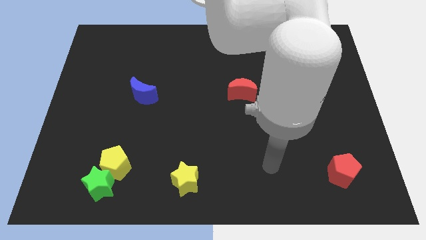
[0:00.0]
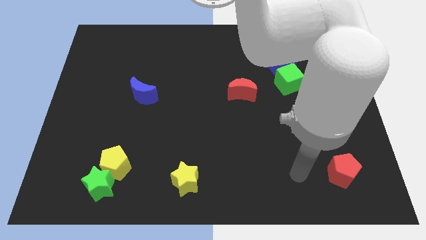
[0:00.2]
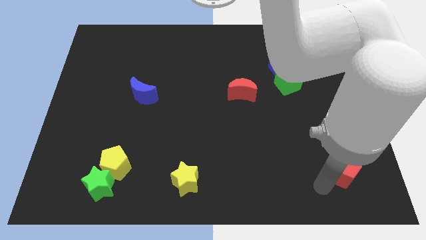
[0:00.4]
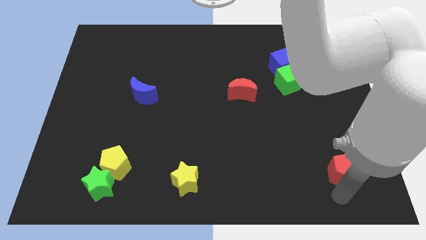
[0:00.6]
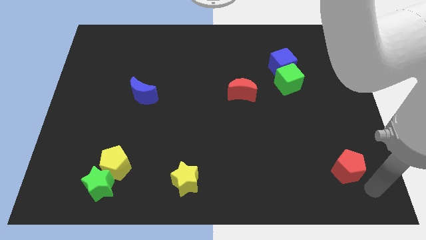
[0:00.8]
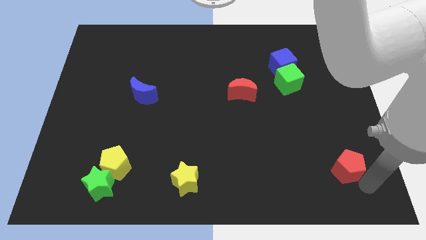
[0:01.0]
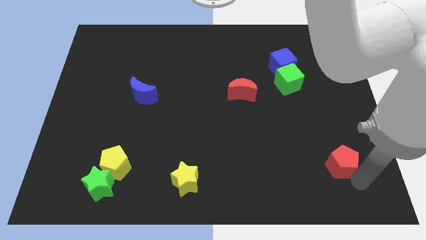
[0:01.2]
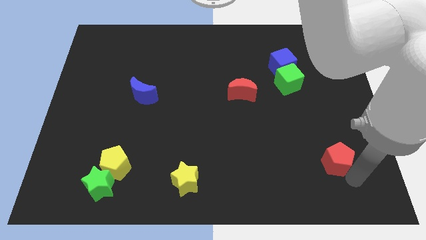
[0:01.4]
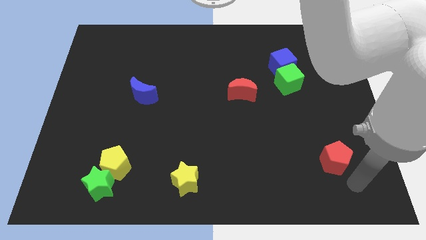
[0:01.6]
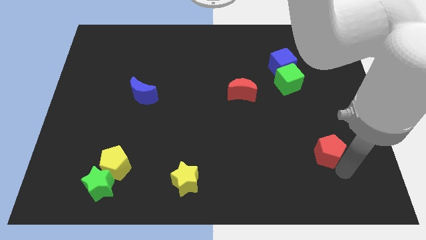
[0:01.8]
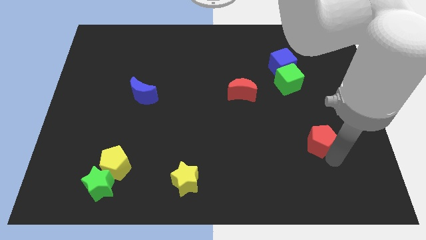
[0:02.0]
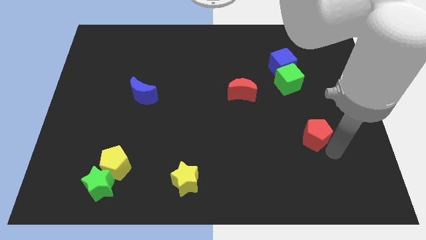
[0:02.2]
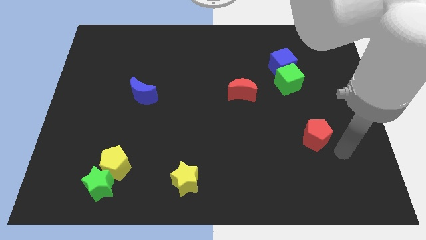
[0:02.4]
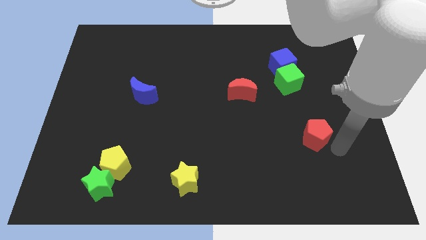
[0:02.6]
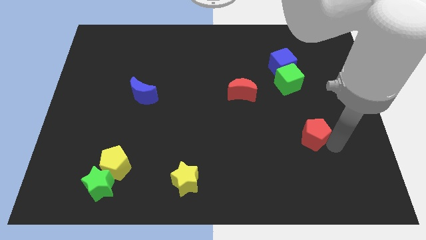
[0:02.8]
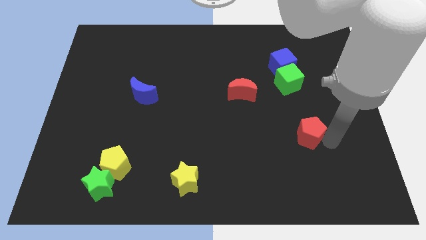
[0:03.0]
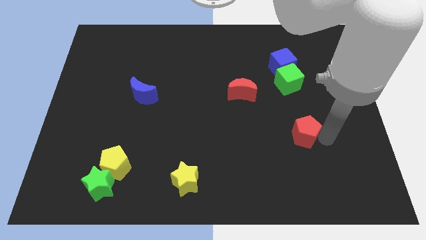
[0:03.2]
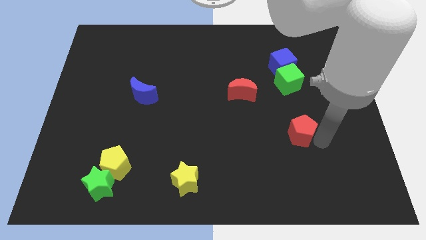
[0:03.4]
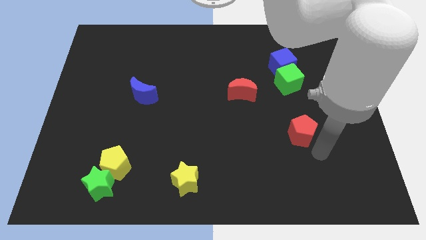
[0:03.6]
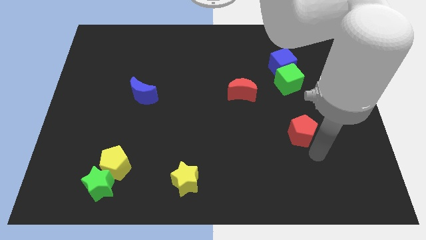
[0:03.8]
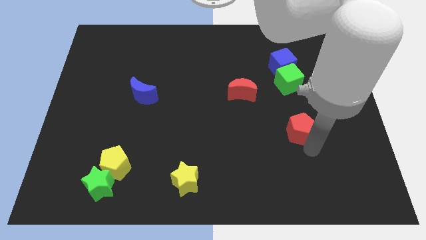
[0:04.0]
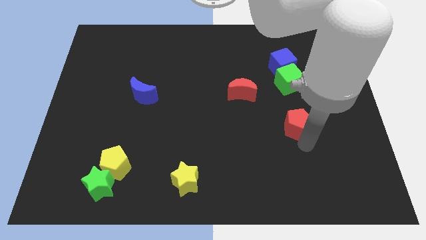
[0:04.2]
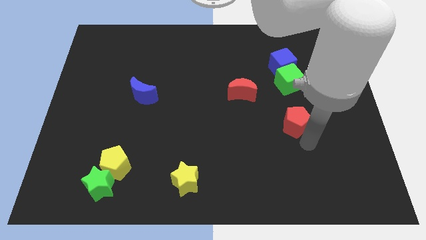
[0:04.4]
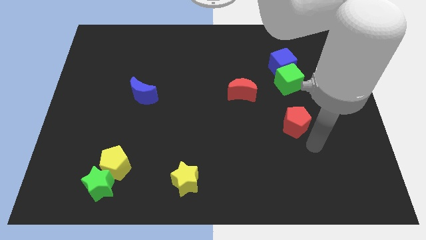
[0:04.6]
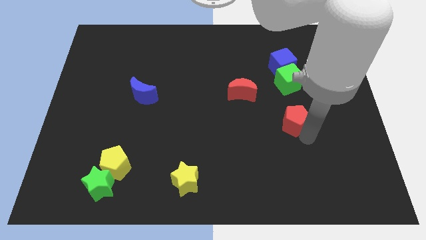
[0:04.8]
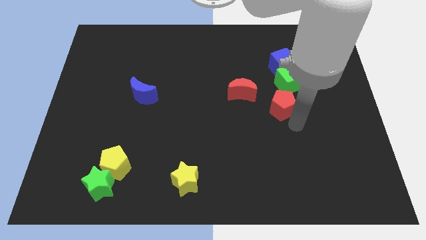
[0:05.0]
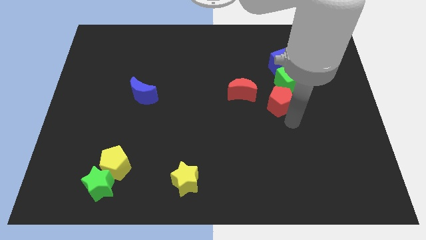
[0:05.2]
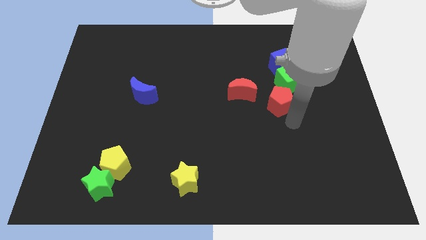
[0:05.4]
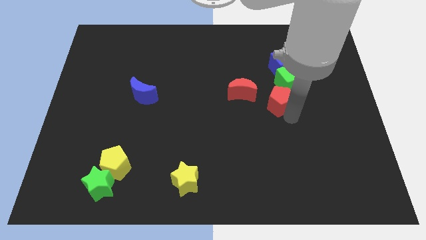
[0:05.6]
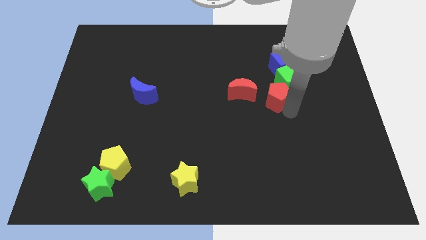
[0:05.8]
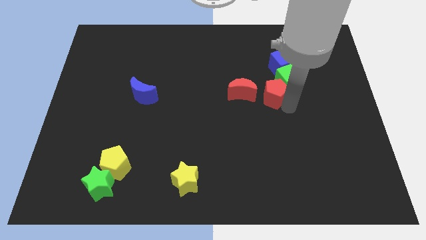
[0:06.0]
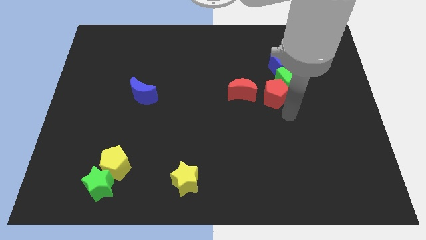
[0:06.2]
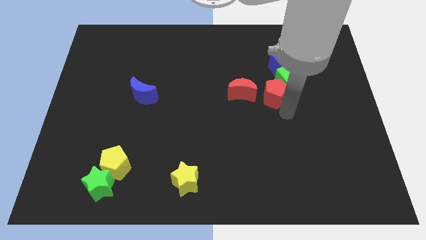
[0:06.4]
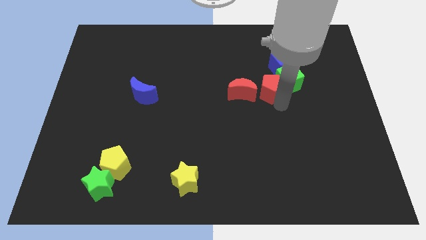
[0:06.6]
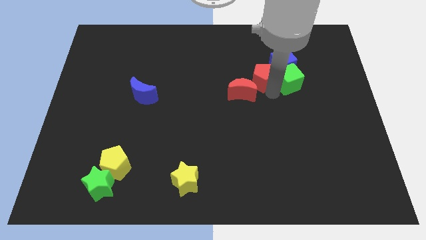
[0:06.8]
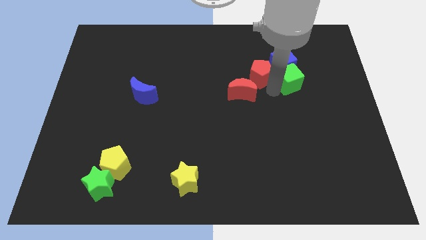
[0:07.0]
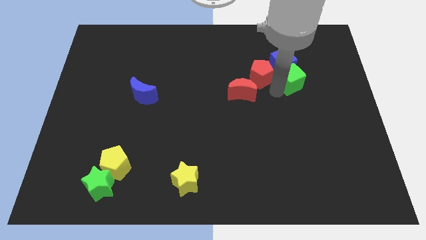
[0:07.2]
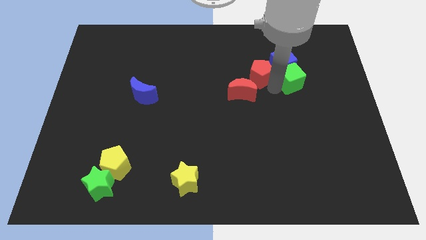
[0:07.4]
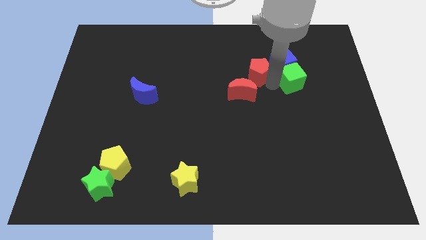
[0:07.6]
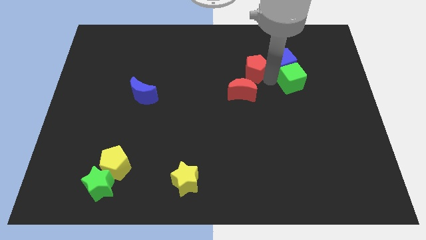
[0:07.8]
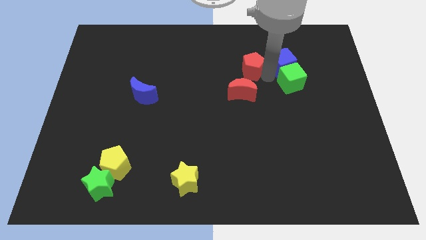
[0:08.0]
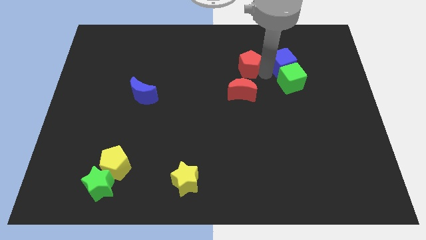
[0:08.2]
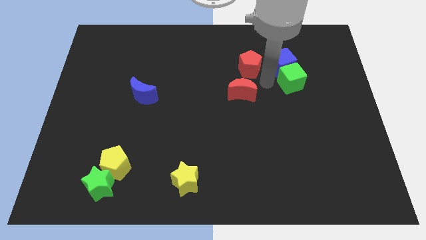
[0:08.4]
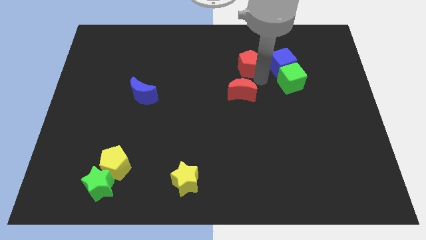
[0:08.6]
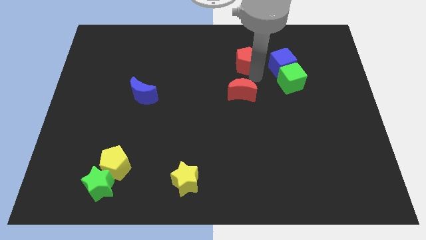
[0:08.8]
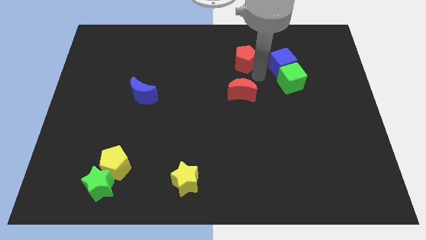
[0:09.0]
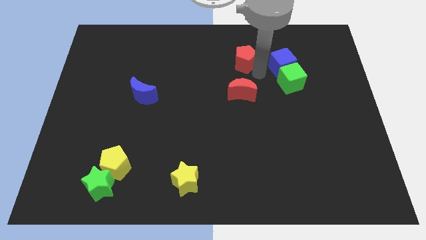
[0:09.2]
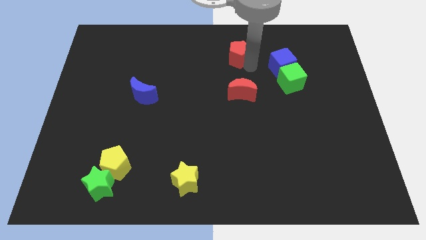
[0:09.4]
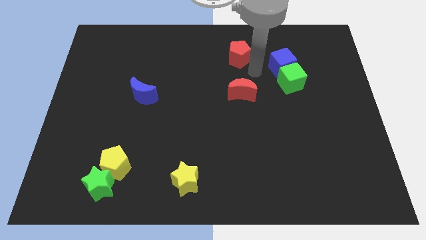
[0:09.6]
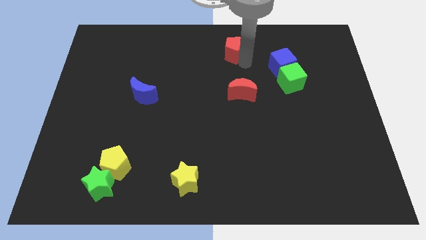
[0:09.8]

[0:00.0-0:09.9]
move the red pentagon to the towards your base

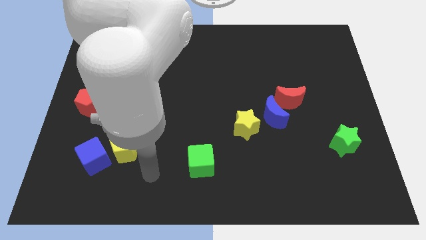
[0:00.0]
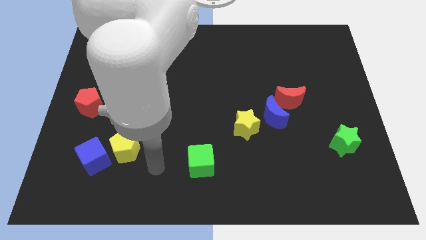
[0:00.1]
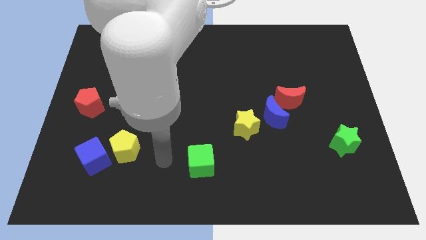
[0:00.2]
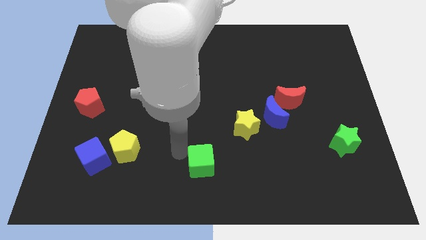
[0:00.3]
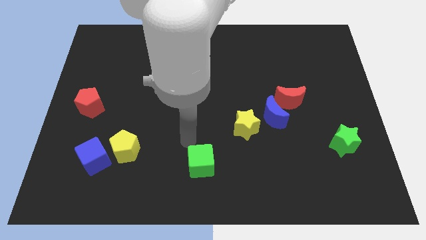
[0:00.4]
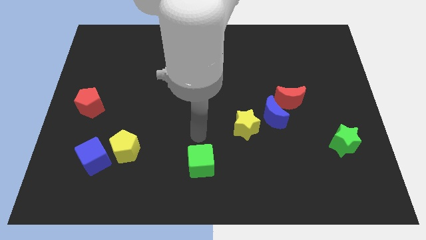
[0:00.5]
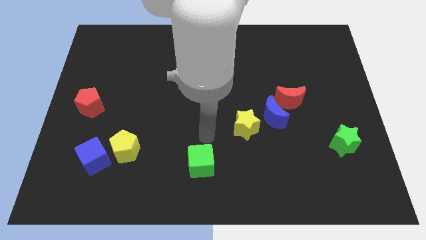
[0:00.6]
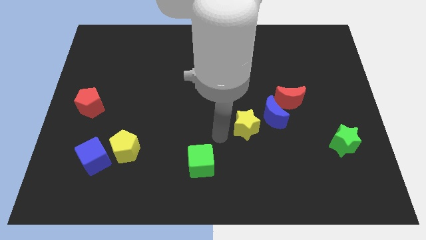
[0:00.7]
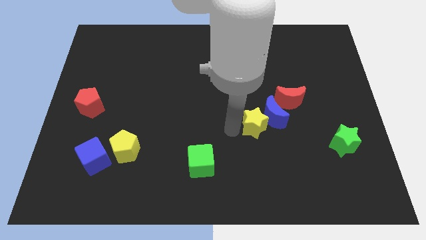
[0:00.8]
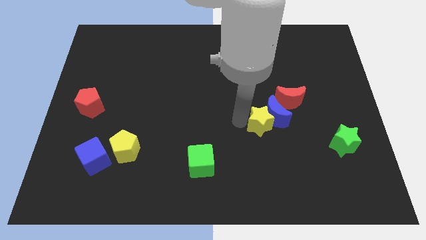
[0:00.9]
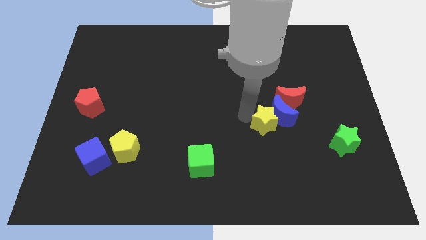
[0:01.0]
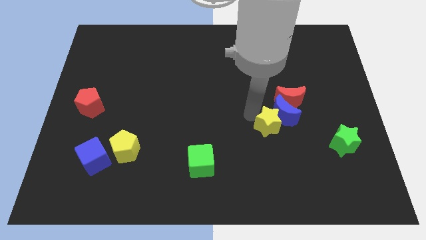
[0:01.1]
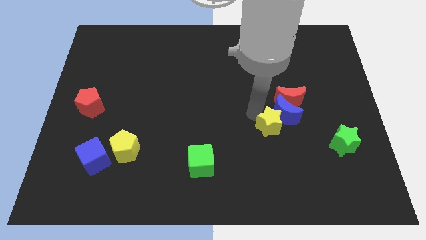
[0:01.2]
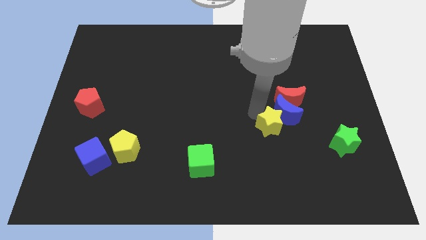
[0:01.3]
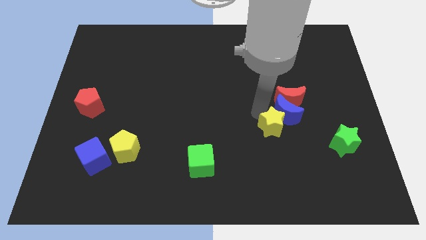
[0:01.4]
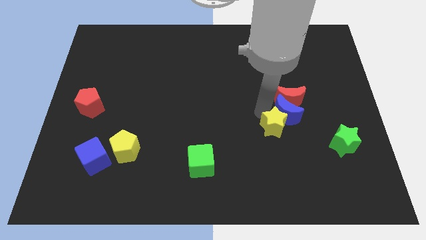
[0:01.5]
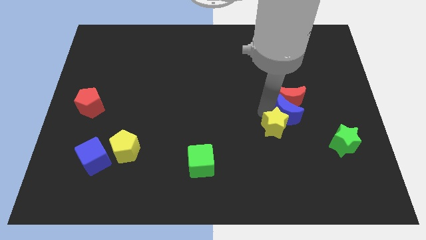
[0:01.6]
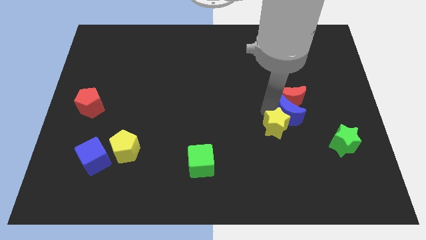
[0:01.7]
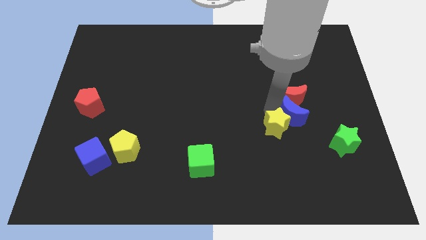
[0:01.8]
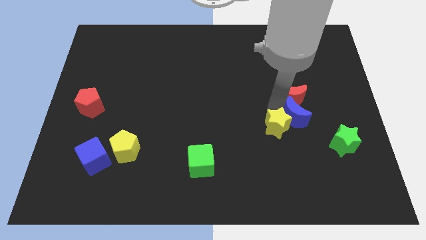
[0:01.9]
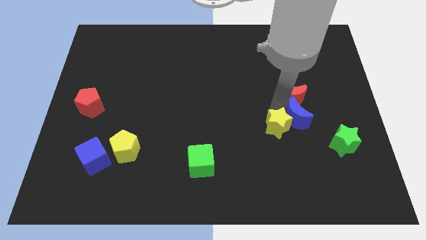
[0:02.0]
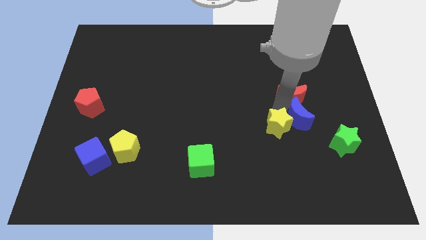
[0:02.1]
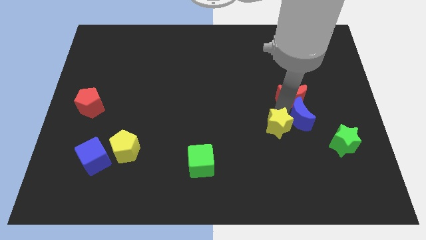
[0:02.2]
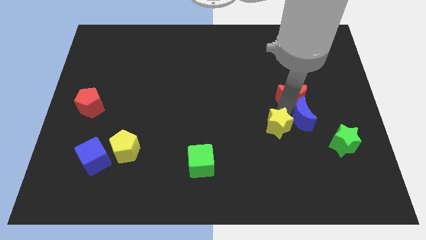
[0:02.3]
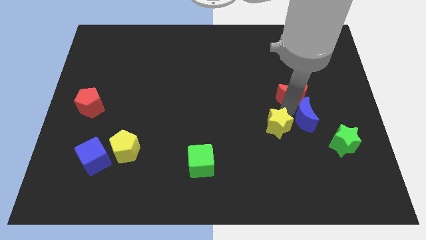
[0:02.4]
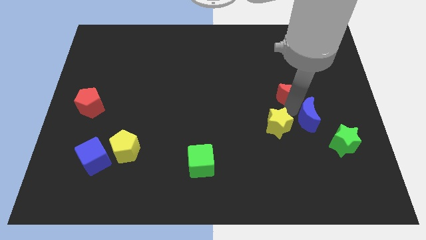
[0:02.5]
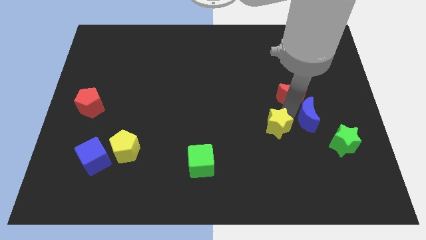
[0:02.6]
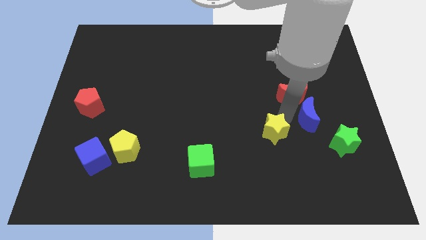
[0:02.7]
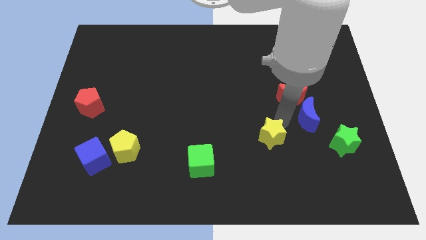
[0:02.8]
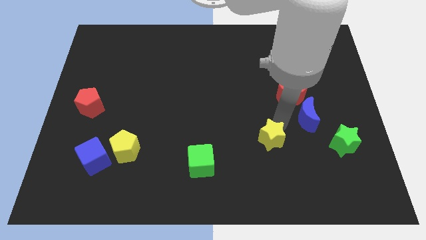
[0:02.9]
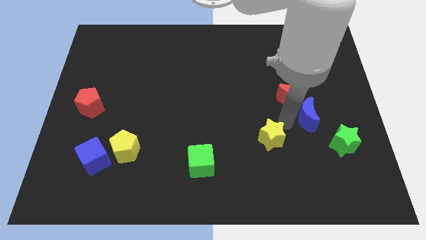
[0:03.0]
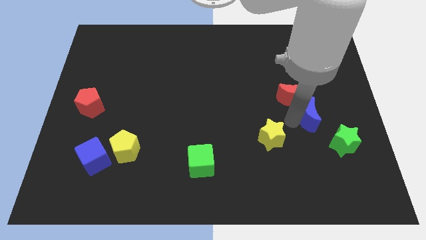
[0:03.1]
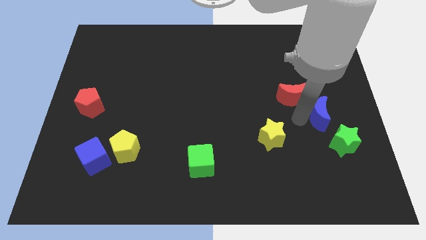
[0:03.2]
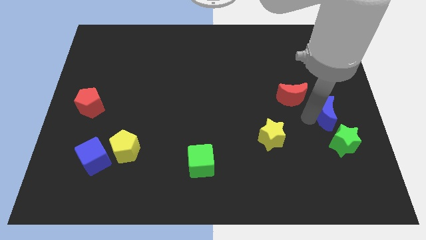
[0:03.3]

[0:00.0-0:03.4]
move the blue moon to the right side
